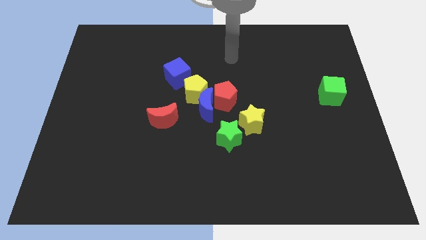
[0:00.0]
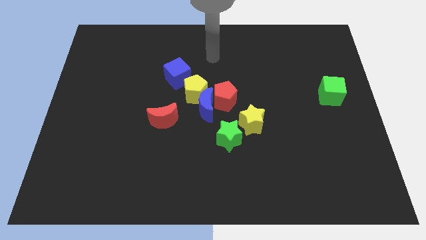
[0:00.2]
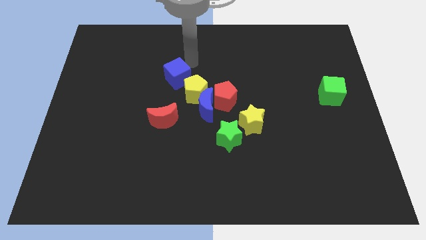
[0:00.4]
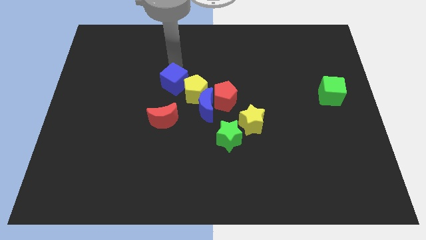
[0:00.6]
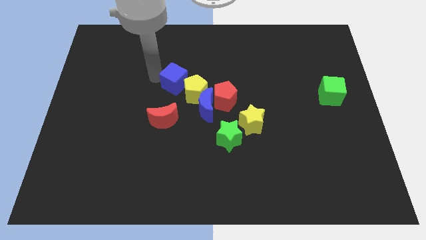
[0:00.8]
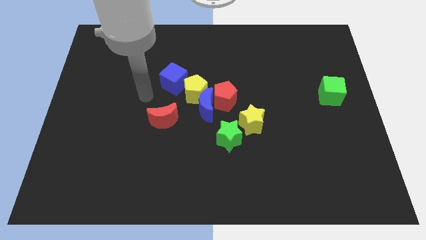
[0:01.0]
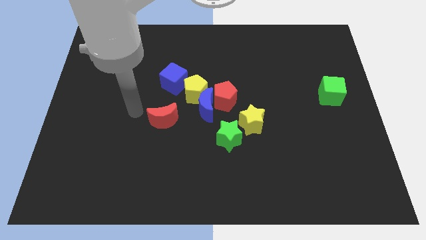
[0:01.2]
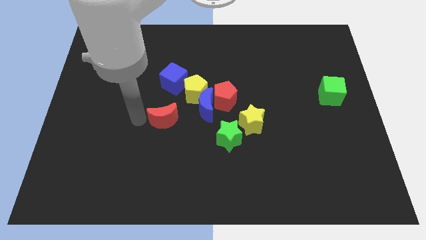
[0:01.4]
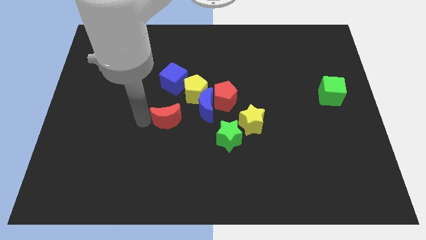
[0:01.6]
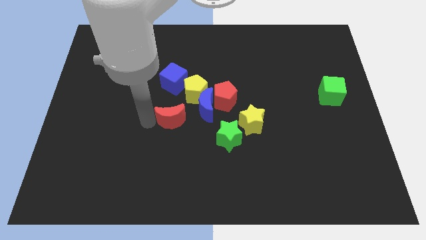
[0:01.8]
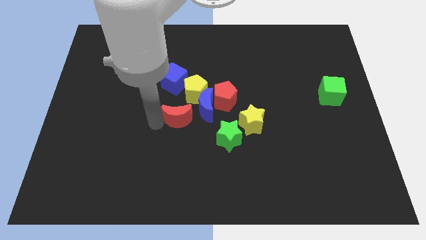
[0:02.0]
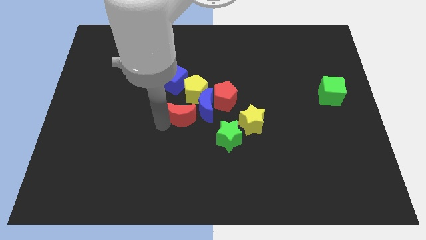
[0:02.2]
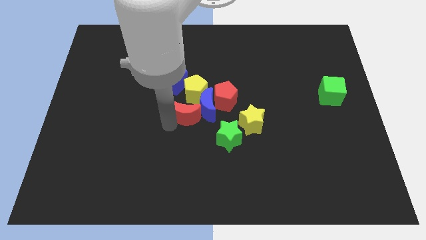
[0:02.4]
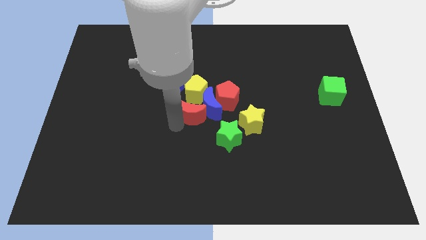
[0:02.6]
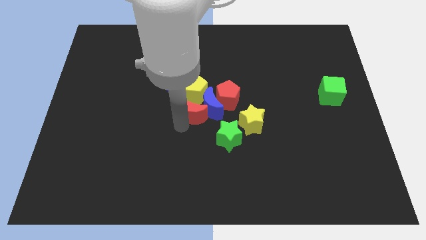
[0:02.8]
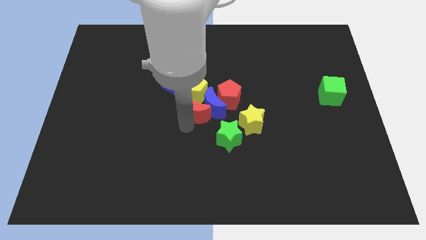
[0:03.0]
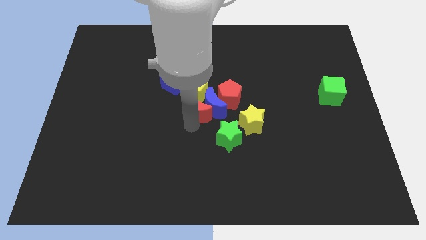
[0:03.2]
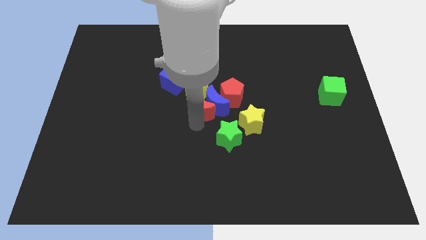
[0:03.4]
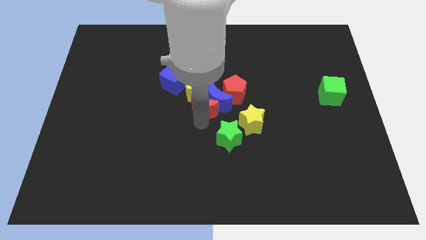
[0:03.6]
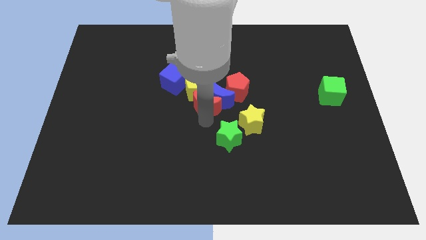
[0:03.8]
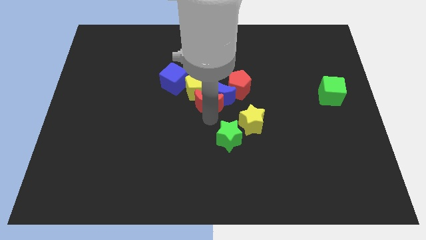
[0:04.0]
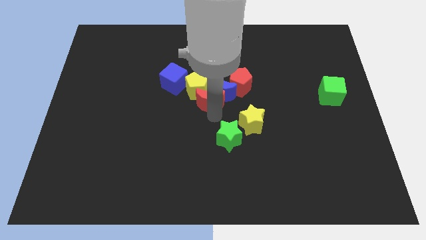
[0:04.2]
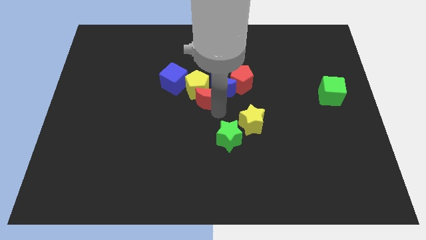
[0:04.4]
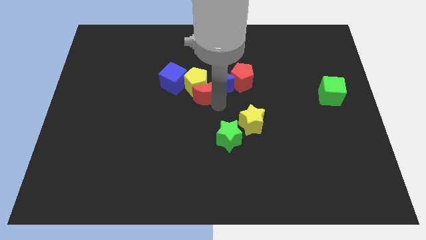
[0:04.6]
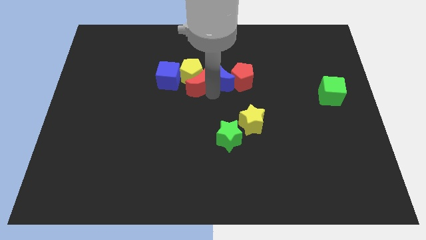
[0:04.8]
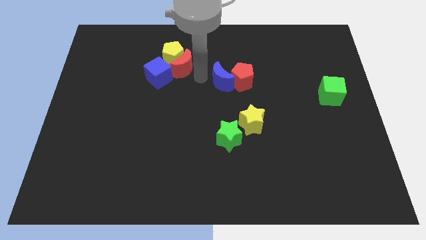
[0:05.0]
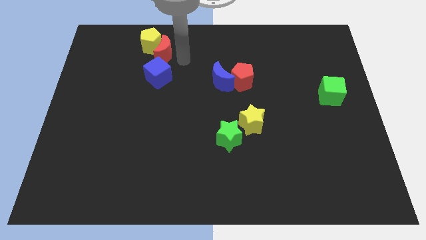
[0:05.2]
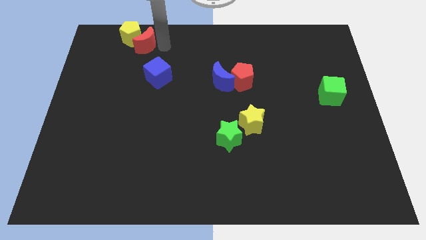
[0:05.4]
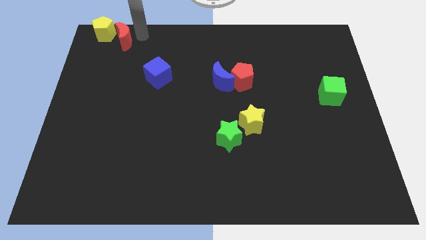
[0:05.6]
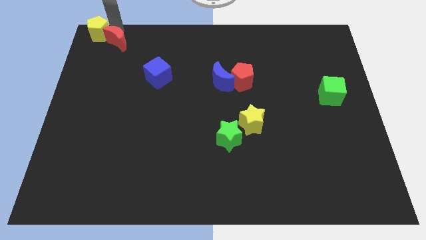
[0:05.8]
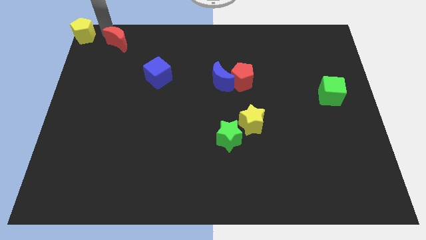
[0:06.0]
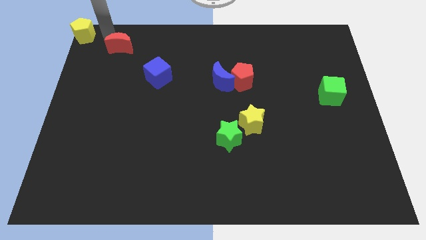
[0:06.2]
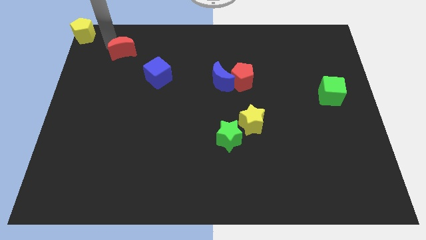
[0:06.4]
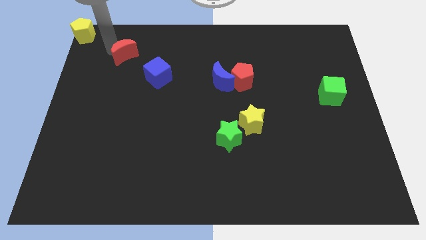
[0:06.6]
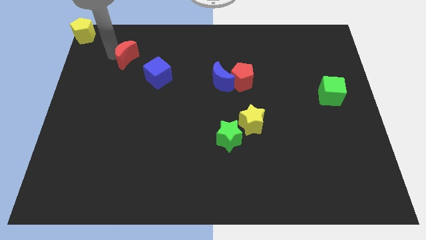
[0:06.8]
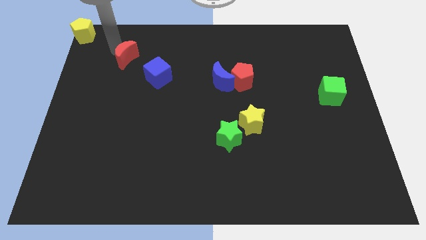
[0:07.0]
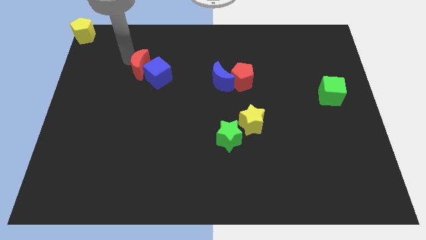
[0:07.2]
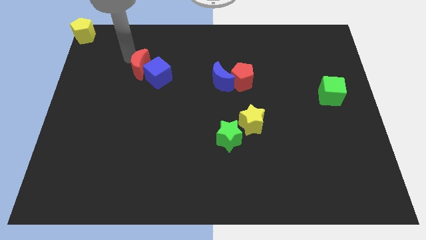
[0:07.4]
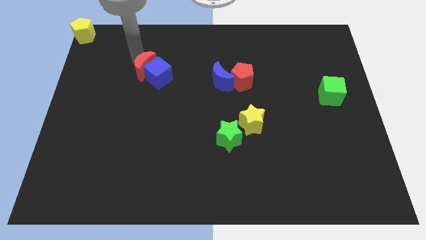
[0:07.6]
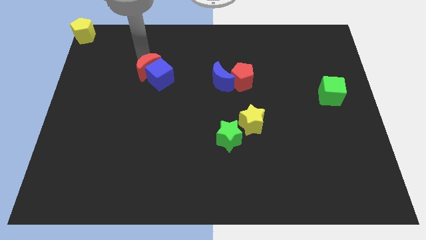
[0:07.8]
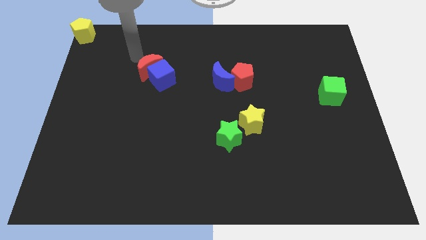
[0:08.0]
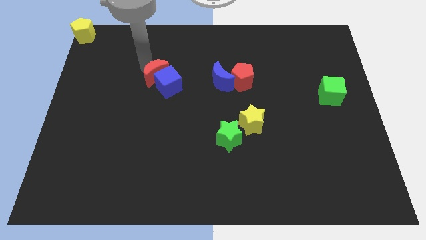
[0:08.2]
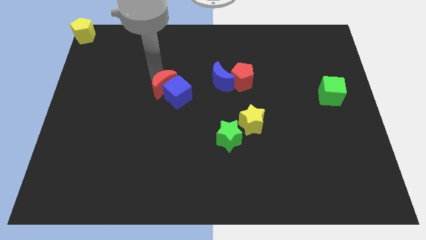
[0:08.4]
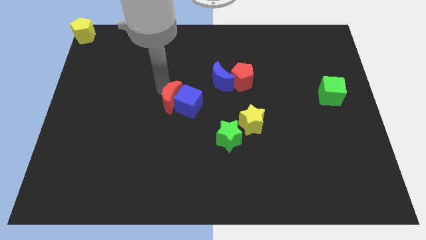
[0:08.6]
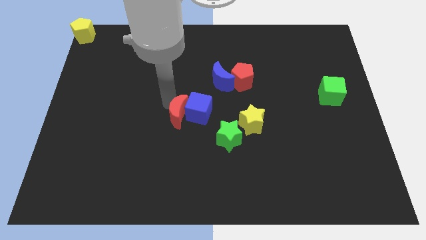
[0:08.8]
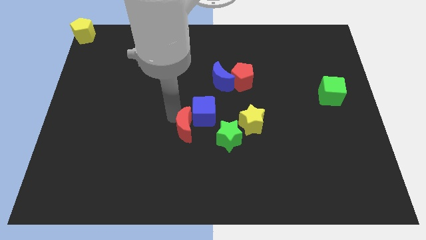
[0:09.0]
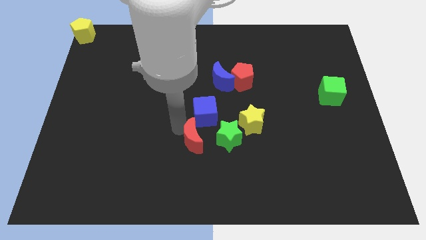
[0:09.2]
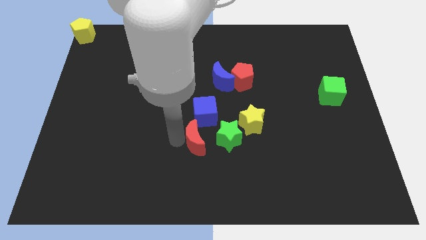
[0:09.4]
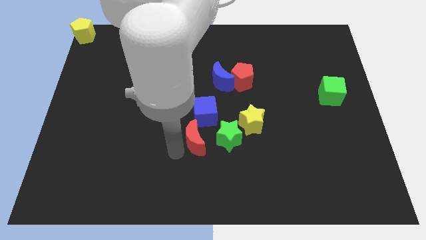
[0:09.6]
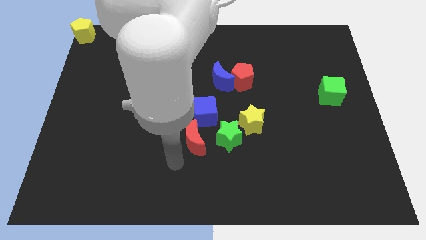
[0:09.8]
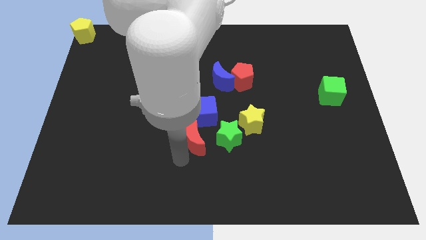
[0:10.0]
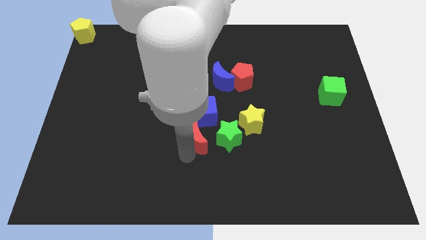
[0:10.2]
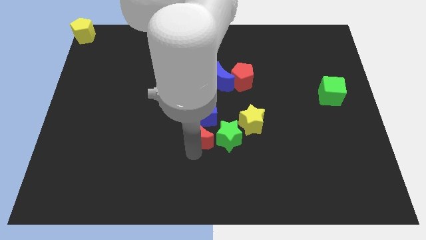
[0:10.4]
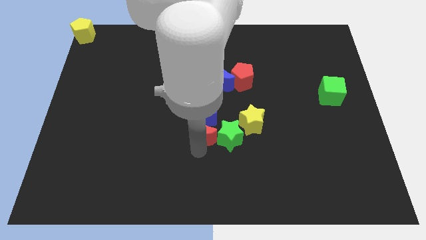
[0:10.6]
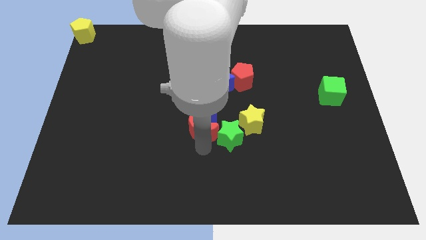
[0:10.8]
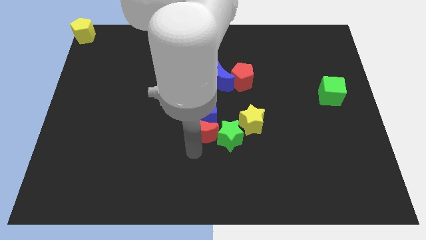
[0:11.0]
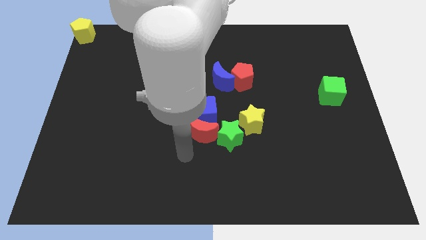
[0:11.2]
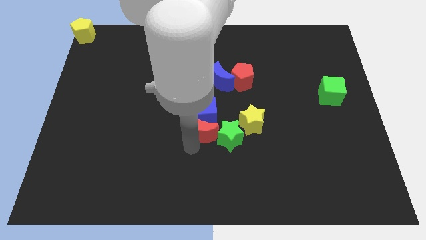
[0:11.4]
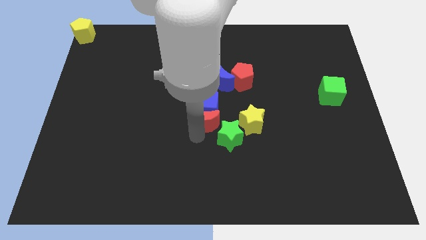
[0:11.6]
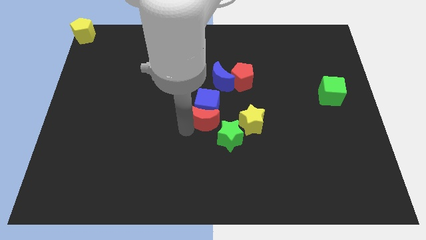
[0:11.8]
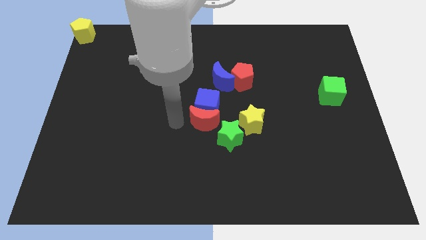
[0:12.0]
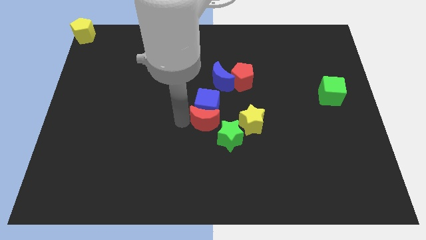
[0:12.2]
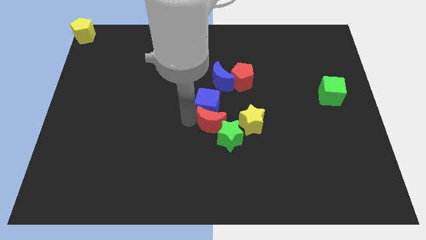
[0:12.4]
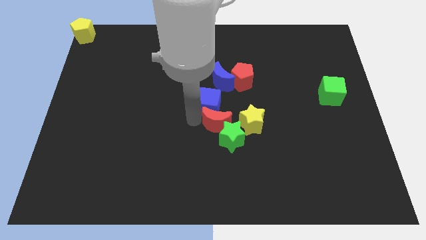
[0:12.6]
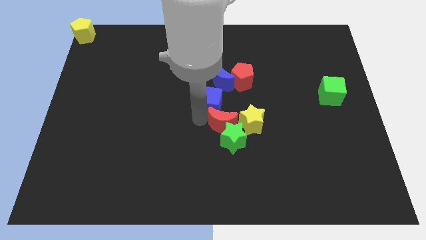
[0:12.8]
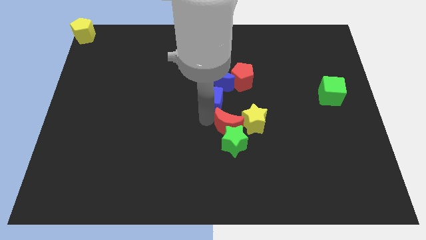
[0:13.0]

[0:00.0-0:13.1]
move the red moon close to the yellow star

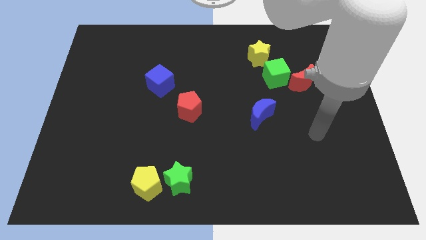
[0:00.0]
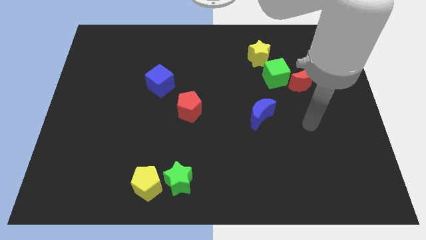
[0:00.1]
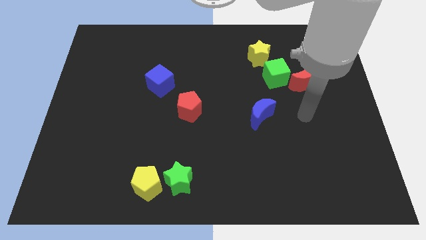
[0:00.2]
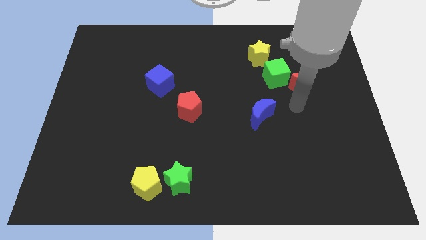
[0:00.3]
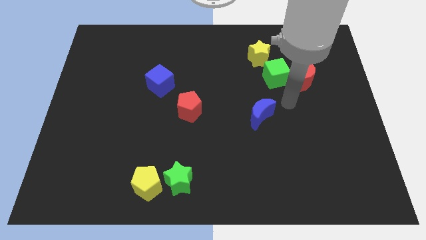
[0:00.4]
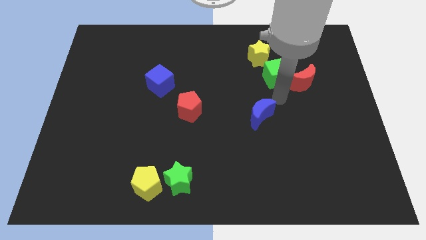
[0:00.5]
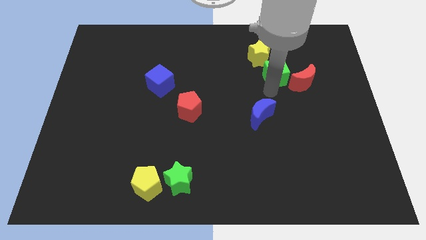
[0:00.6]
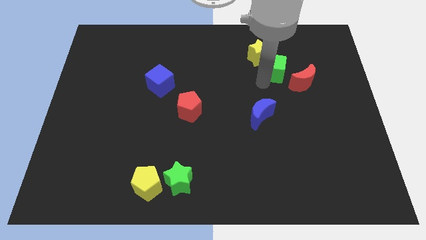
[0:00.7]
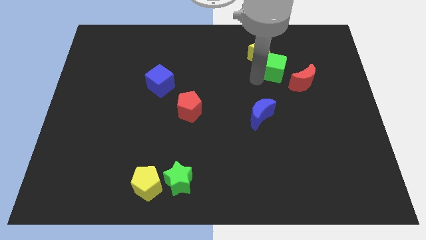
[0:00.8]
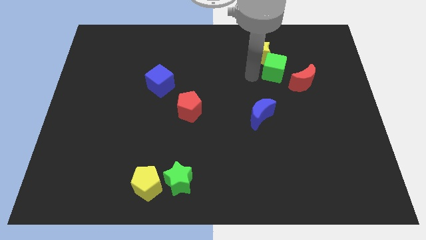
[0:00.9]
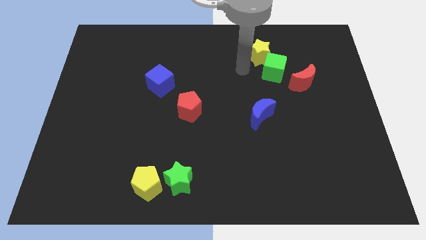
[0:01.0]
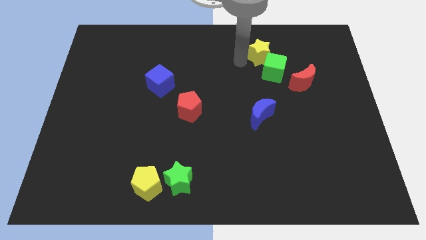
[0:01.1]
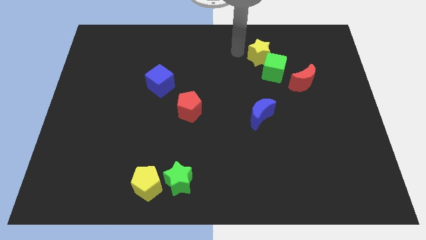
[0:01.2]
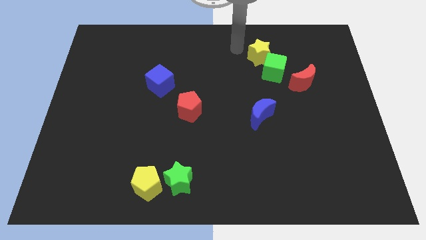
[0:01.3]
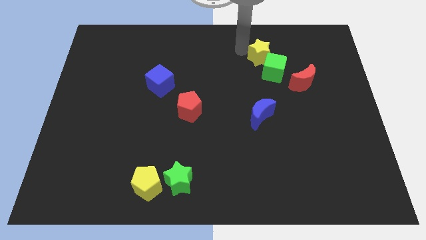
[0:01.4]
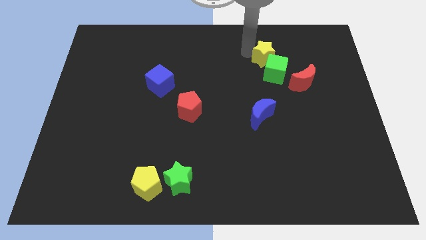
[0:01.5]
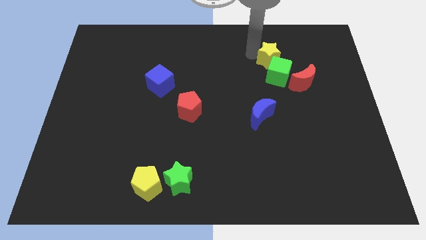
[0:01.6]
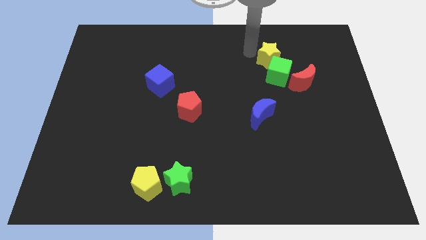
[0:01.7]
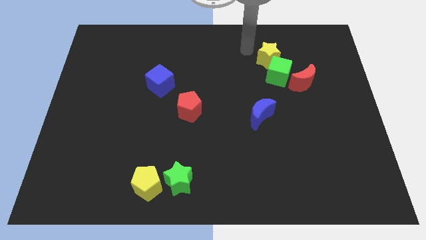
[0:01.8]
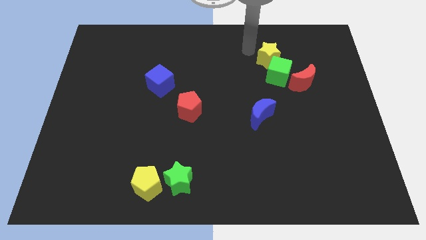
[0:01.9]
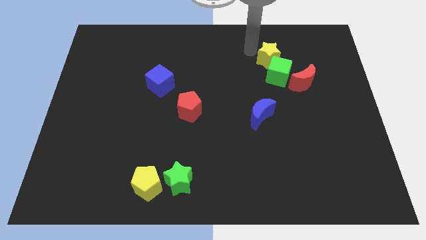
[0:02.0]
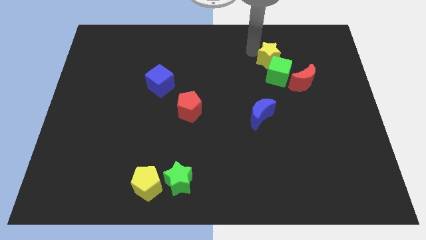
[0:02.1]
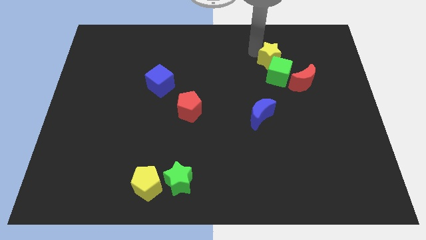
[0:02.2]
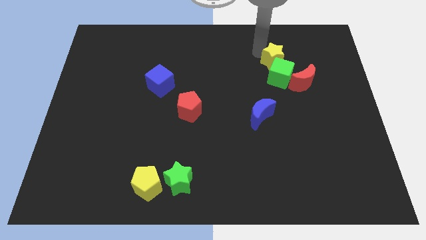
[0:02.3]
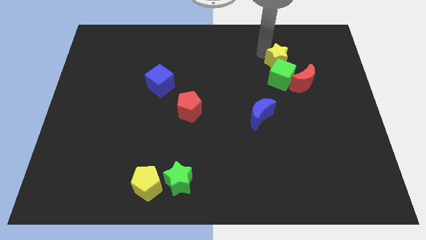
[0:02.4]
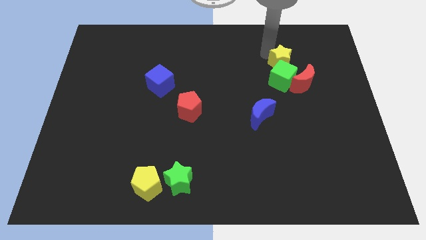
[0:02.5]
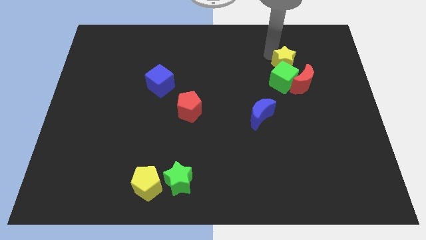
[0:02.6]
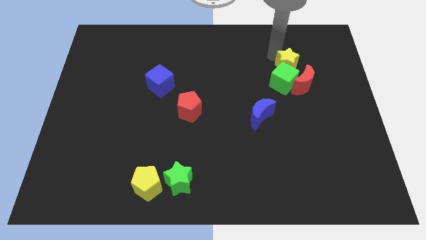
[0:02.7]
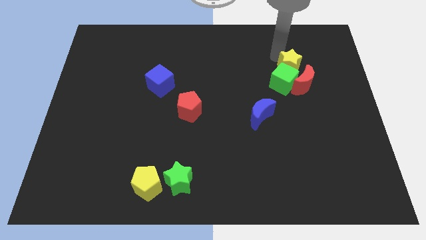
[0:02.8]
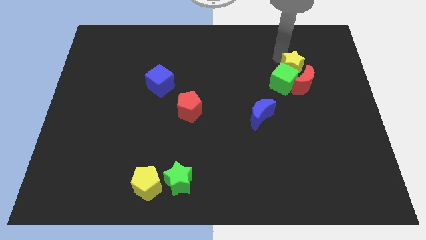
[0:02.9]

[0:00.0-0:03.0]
put the yellow star next to the red moon
